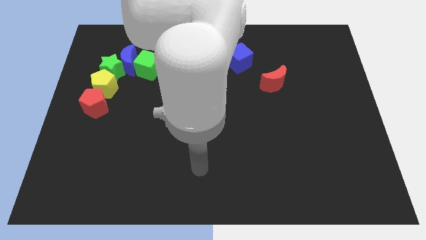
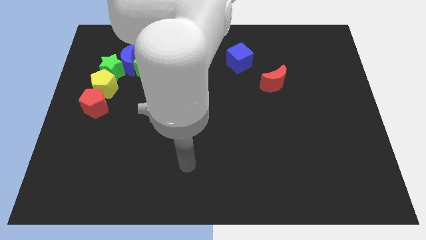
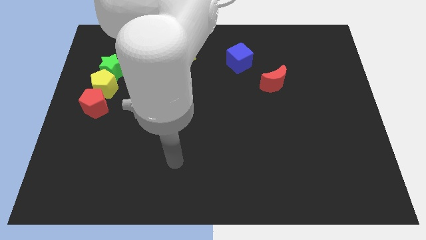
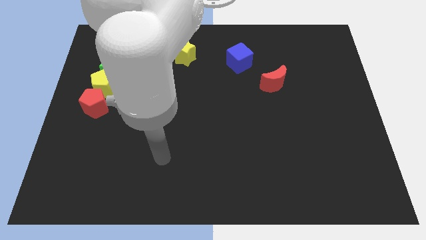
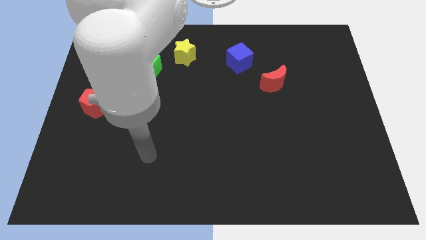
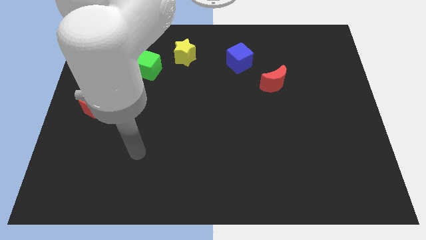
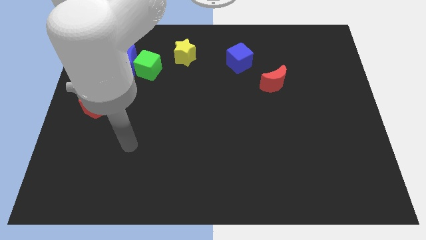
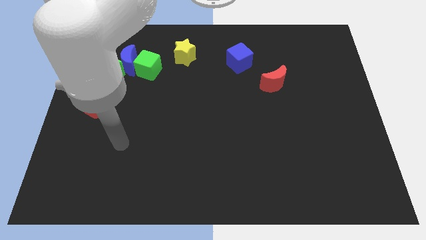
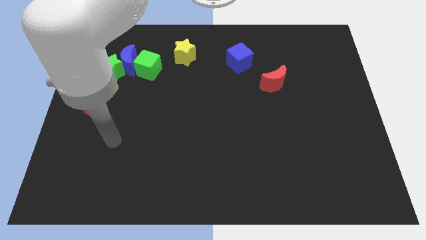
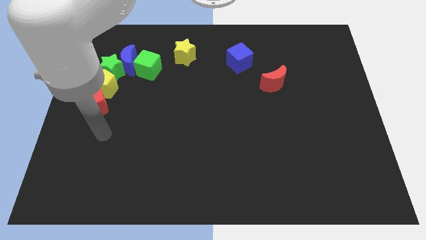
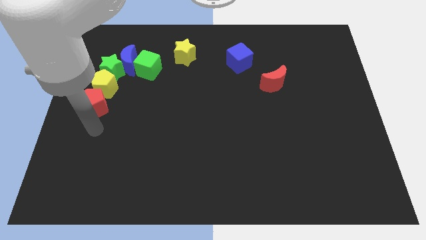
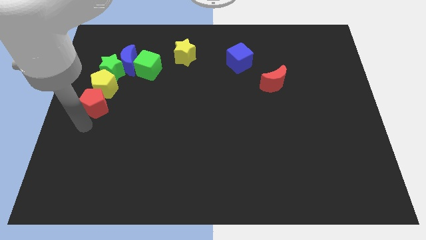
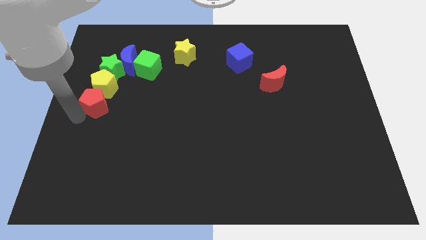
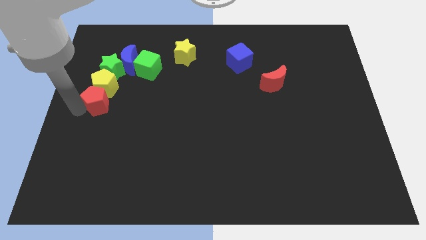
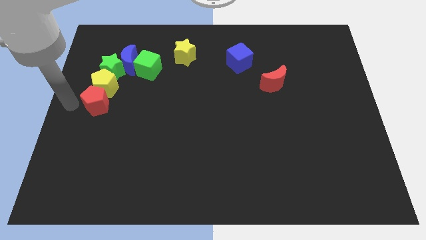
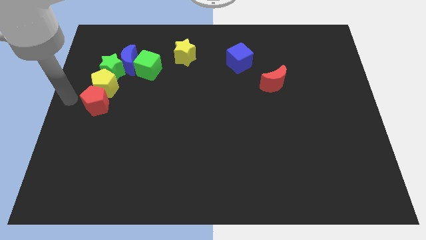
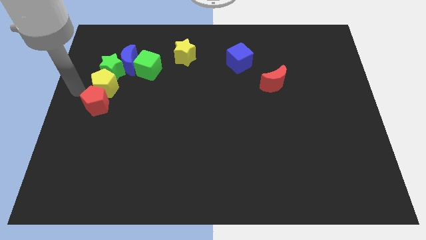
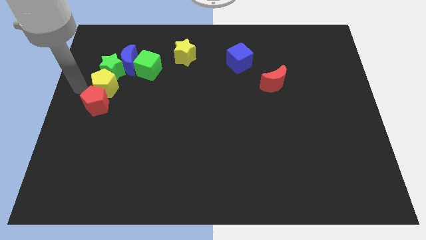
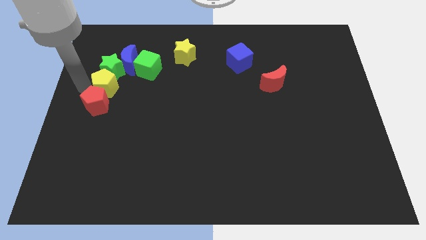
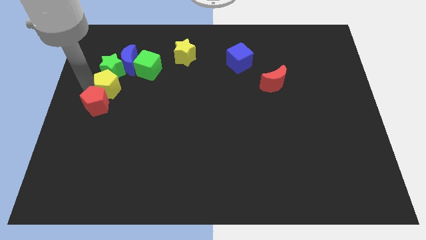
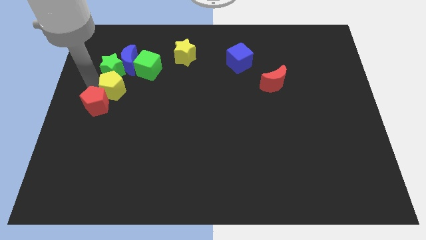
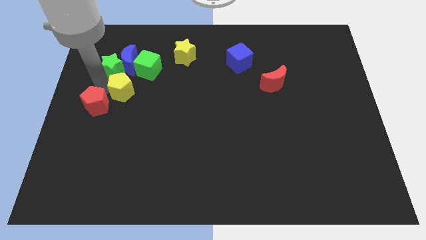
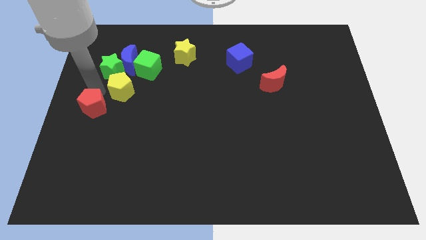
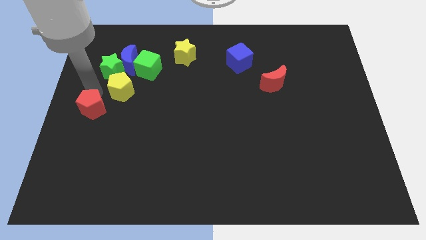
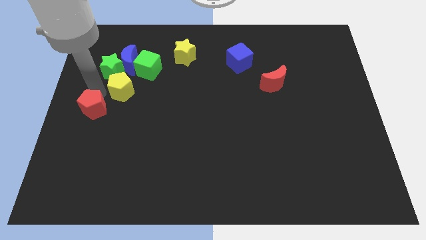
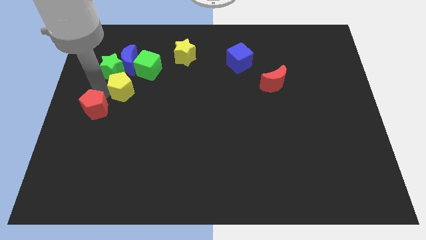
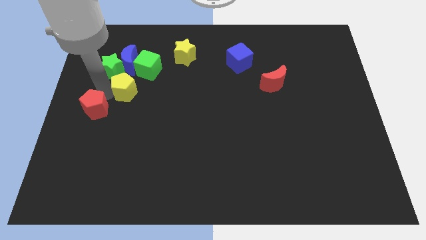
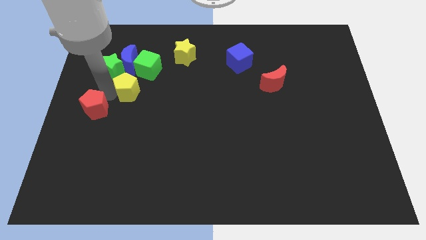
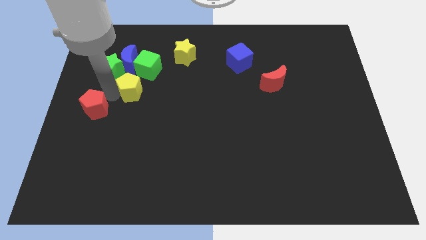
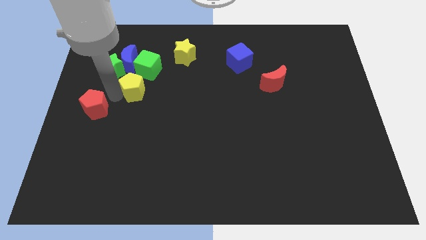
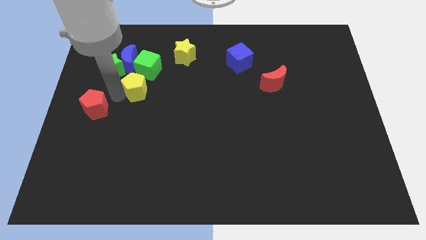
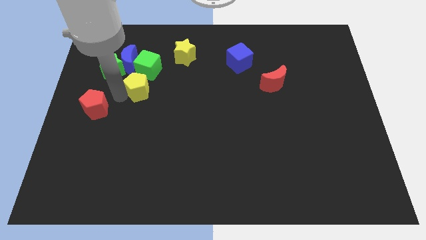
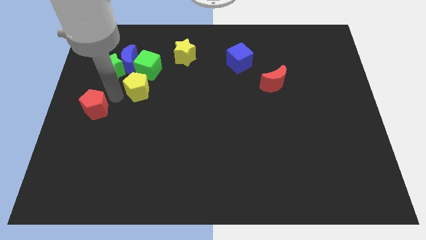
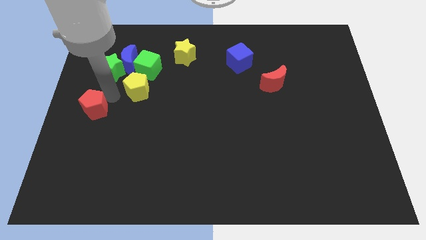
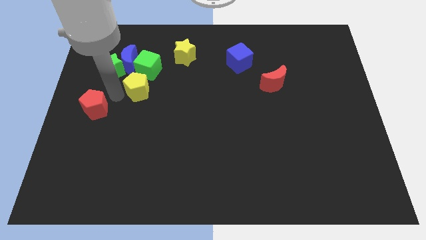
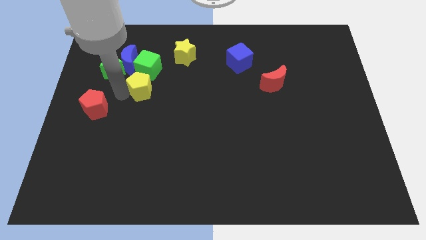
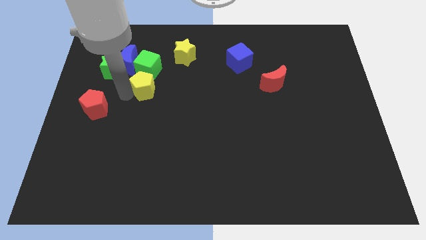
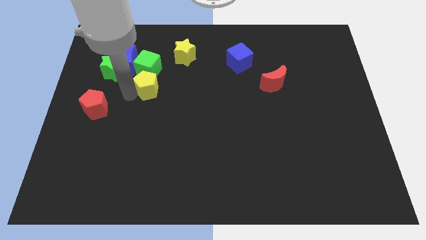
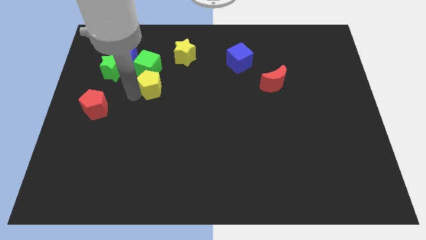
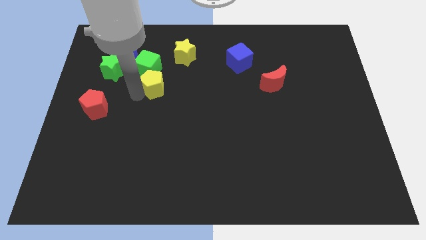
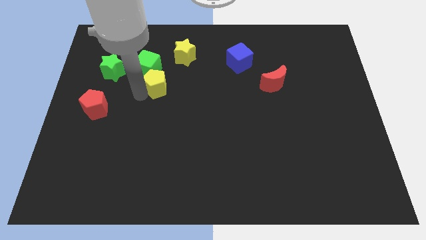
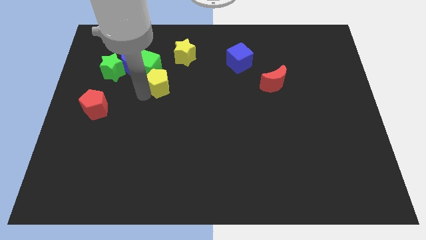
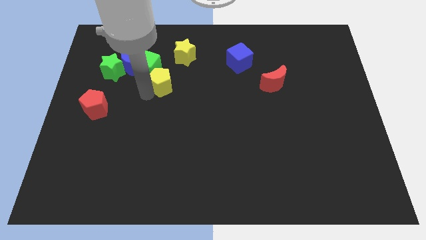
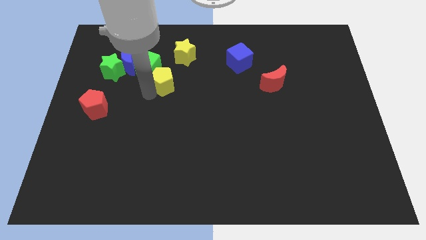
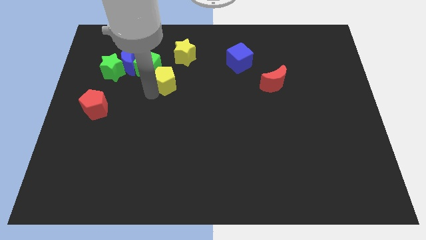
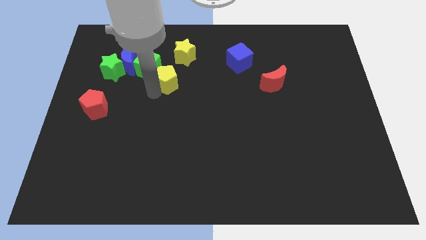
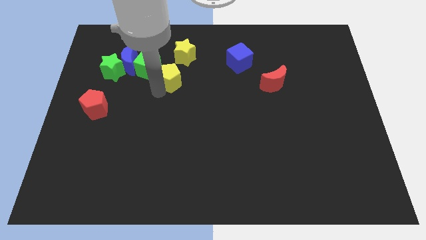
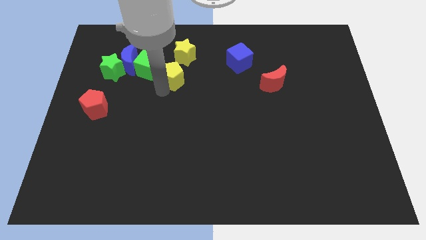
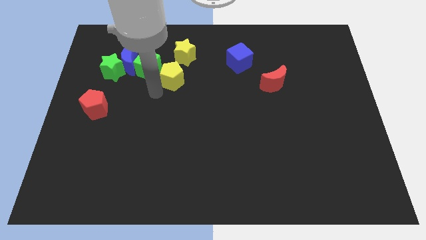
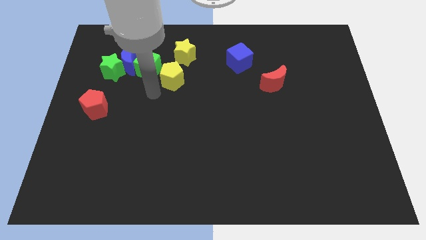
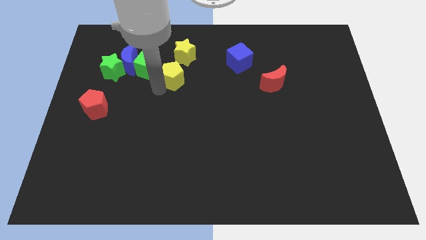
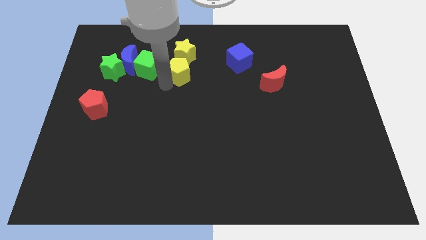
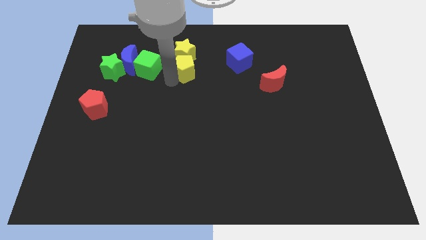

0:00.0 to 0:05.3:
move the yellow pentagon to the left side of the blue cube

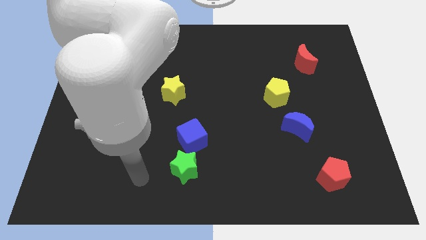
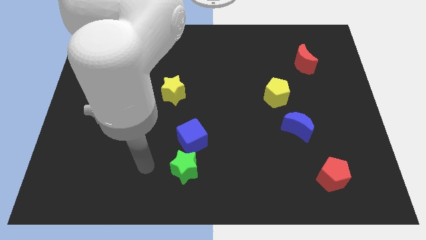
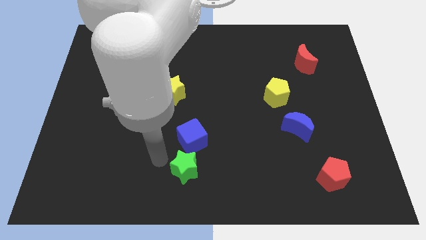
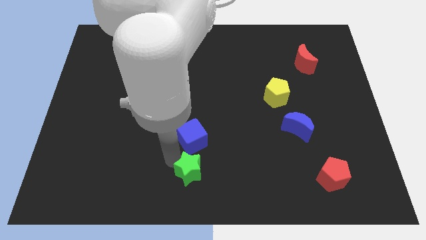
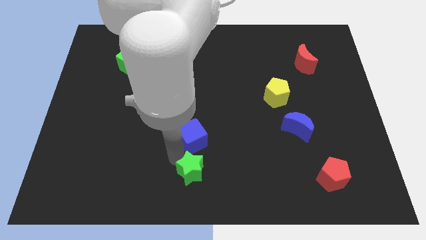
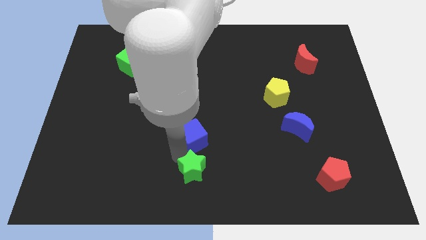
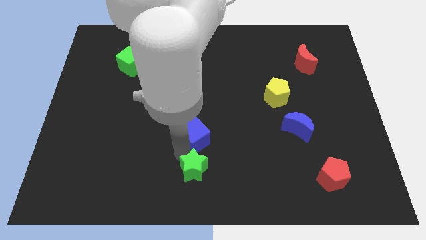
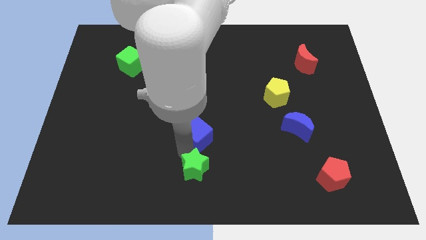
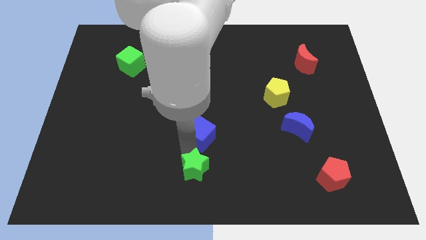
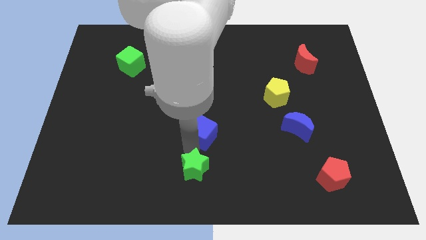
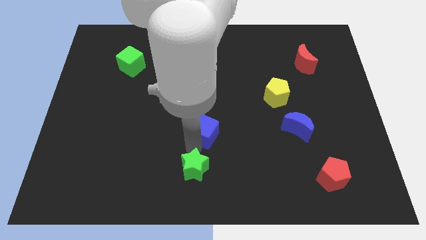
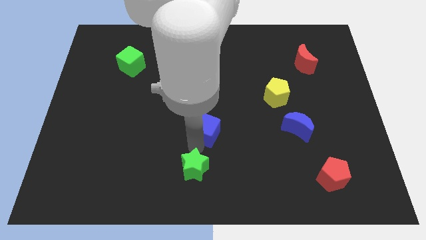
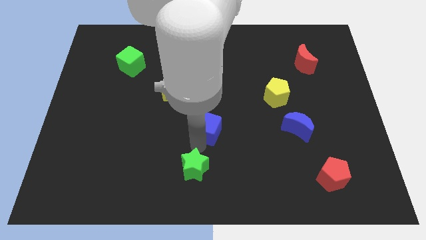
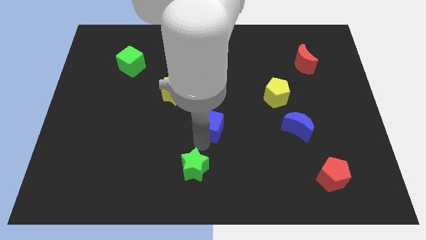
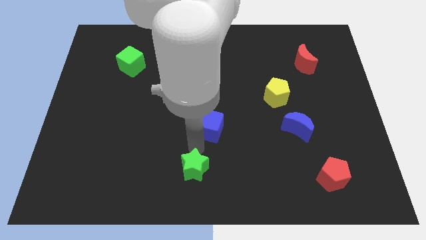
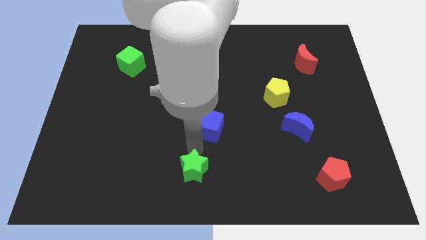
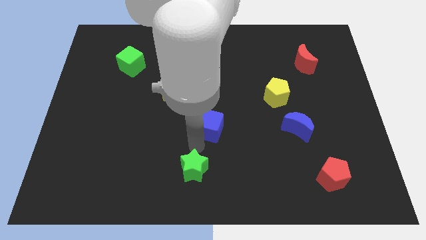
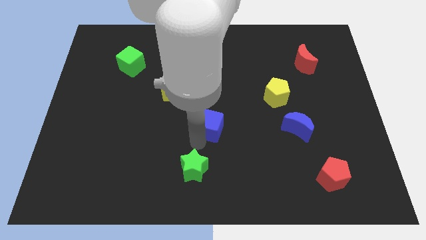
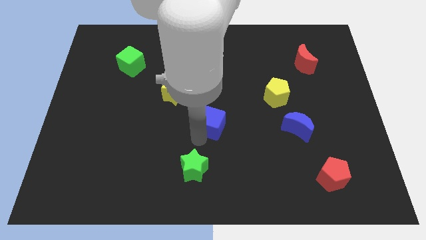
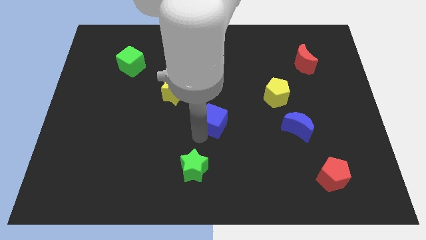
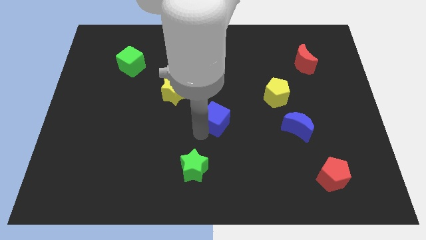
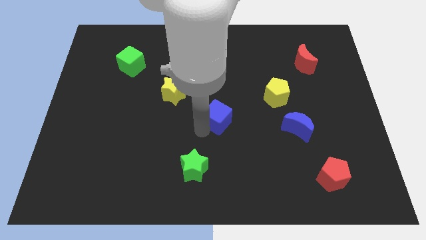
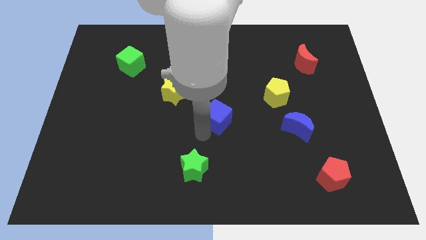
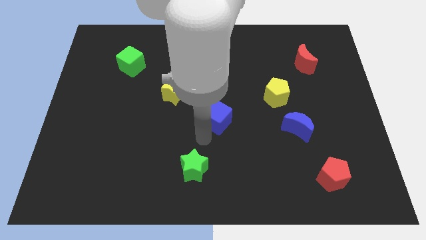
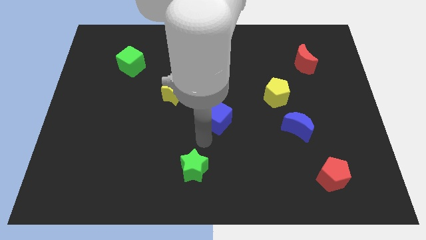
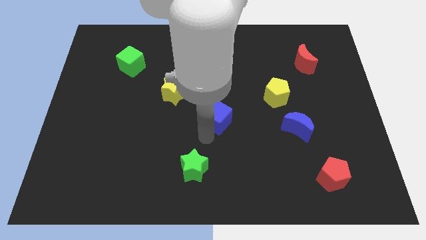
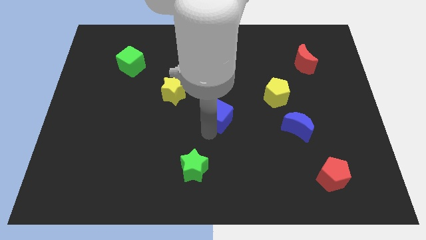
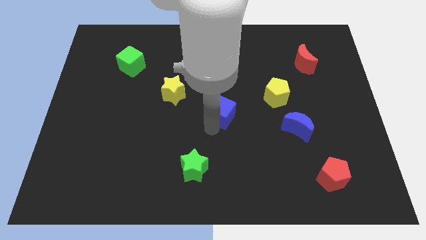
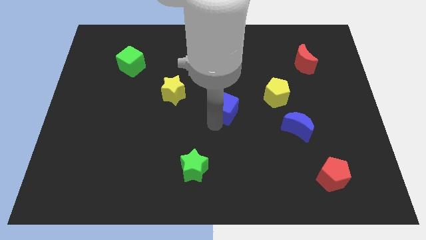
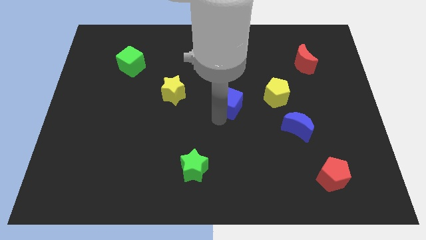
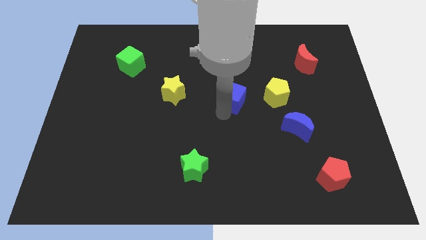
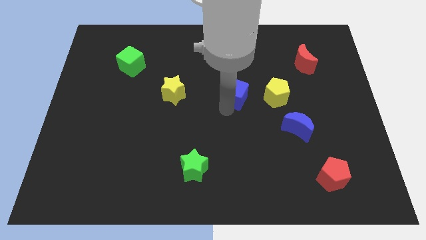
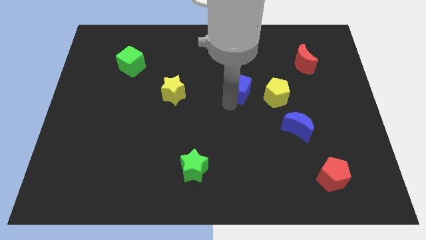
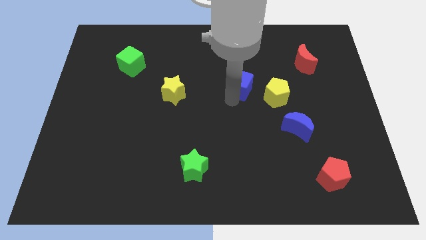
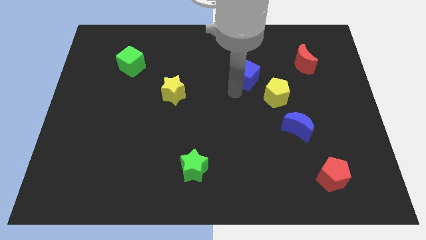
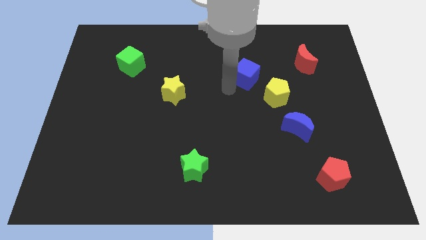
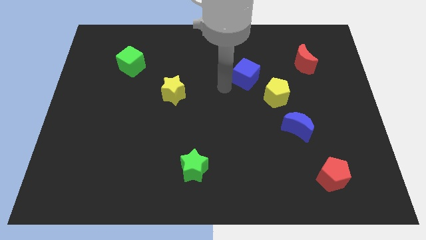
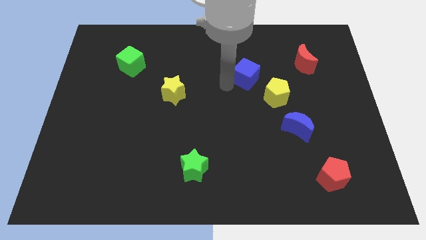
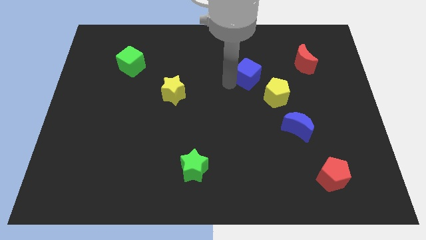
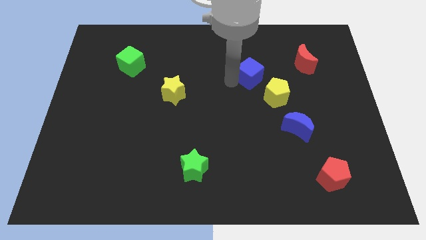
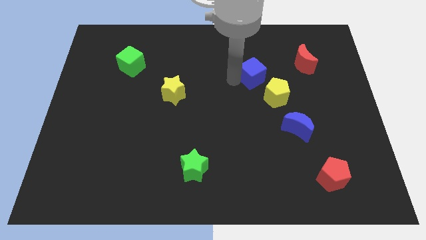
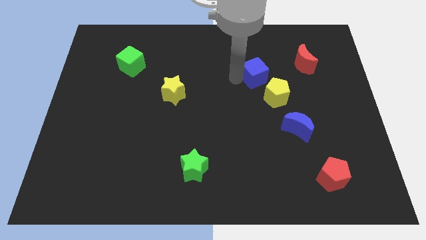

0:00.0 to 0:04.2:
move the blue cube above the yellow pentagon
